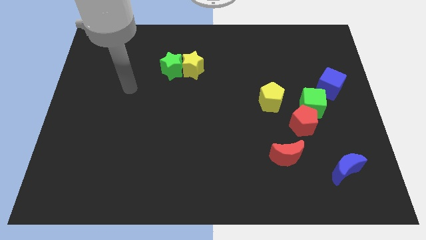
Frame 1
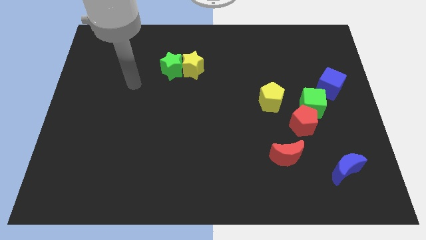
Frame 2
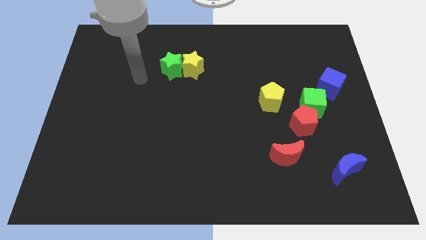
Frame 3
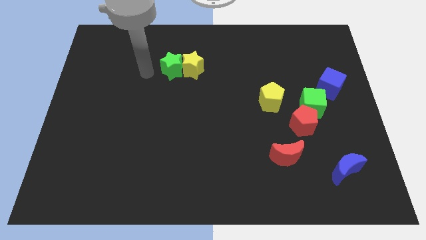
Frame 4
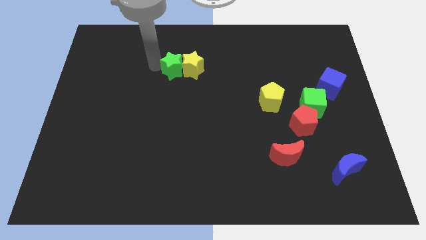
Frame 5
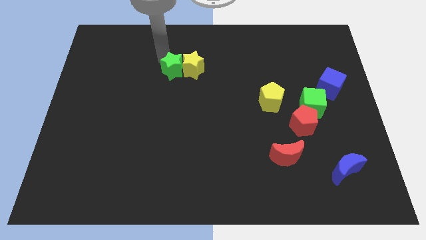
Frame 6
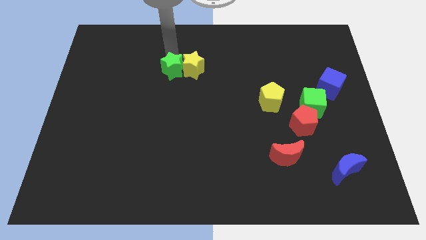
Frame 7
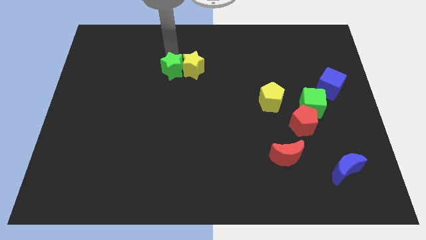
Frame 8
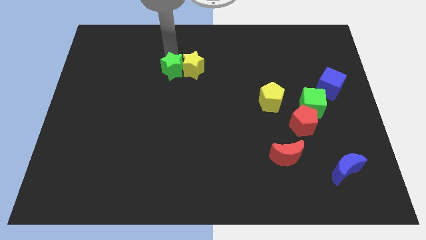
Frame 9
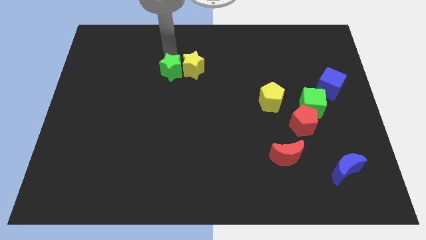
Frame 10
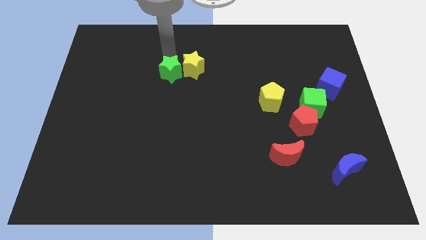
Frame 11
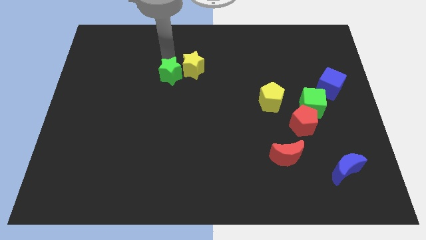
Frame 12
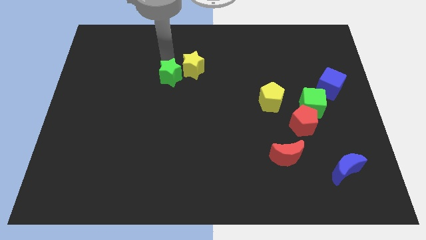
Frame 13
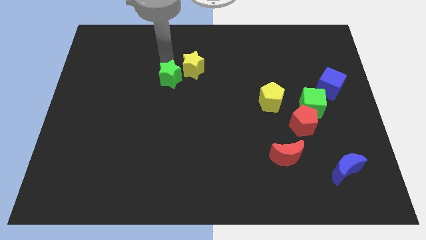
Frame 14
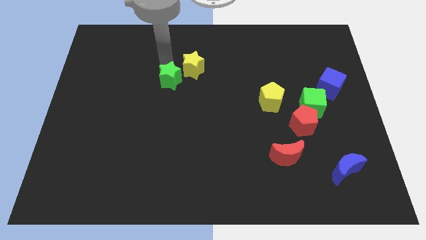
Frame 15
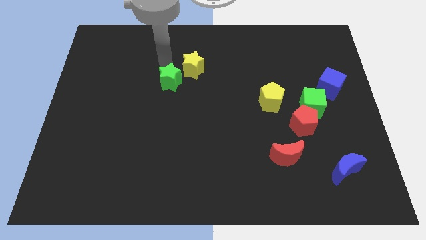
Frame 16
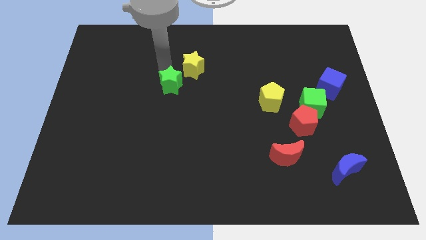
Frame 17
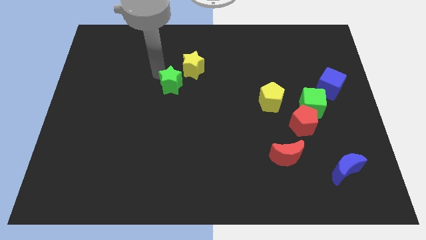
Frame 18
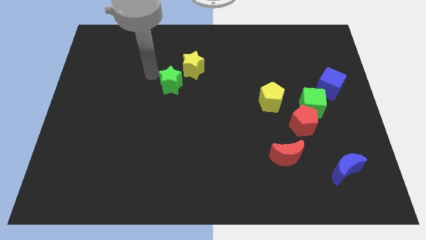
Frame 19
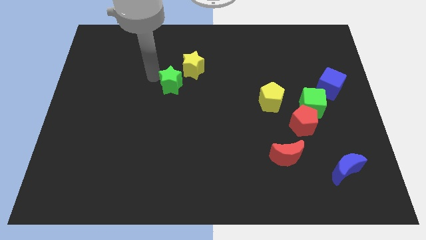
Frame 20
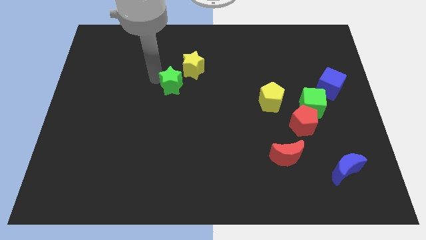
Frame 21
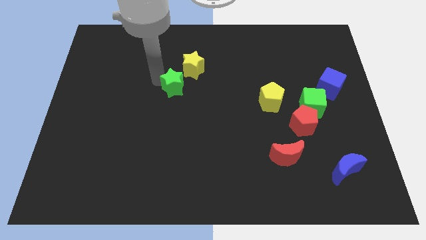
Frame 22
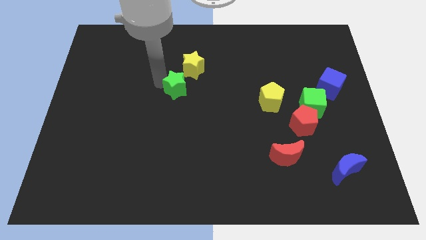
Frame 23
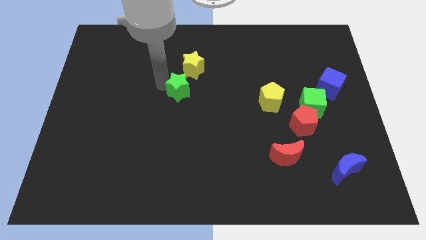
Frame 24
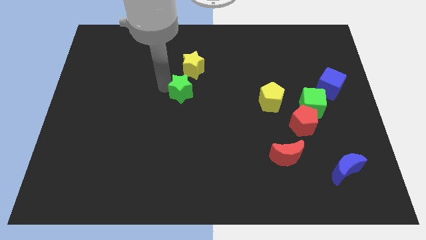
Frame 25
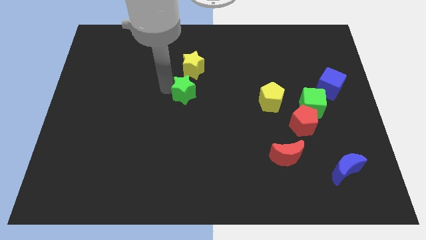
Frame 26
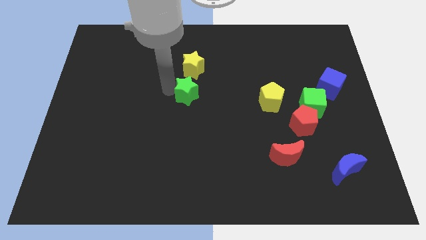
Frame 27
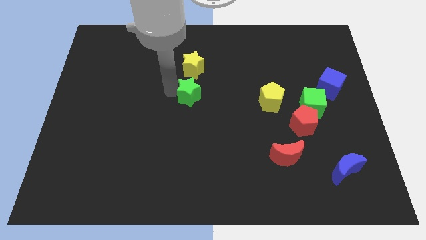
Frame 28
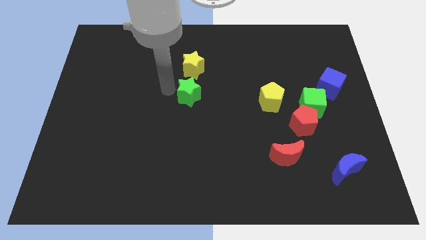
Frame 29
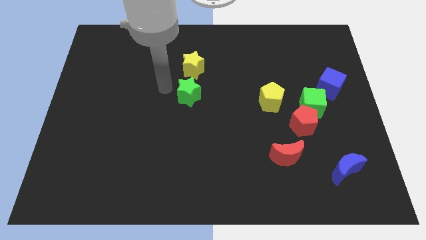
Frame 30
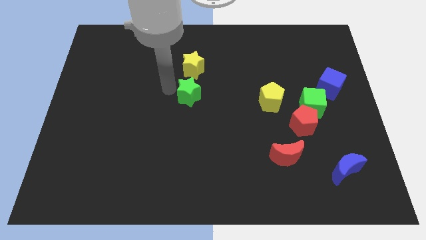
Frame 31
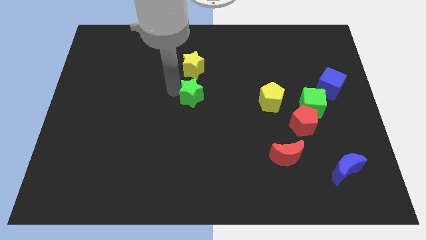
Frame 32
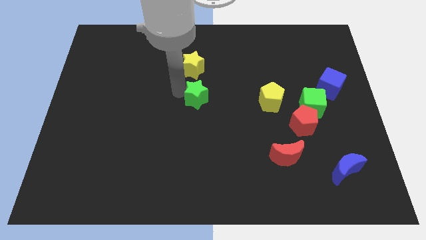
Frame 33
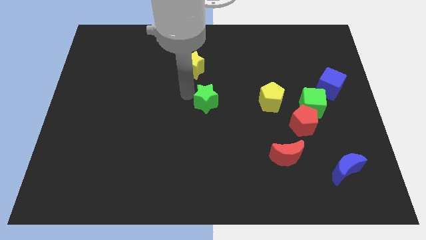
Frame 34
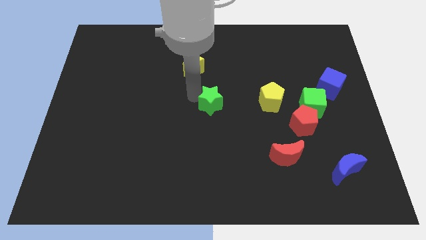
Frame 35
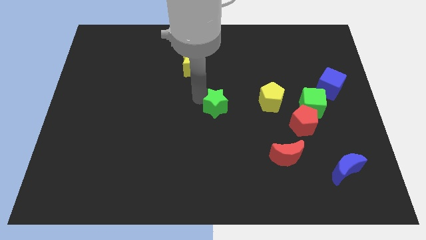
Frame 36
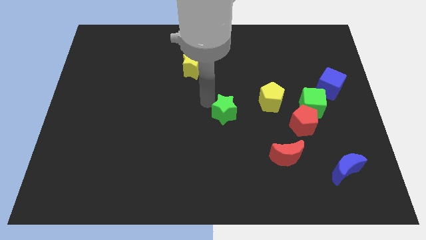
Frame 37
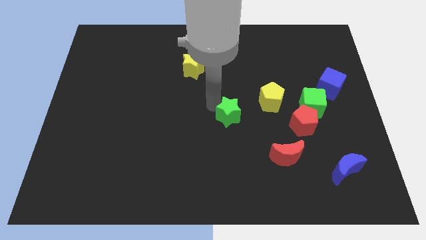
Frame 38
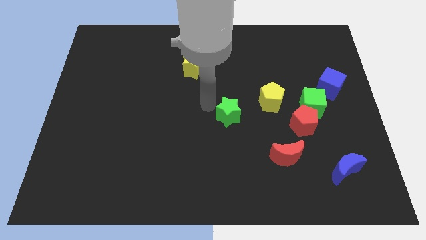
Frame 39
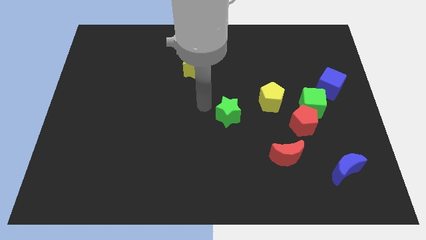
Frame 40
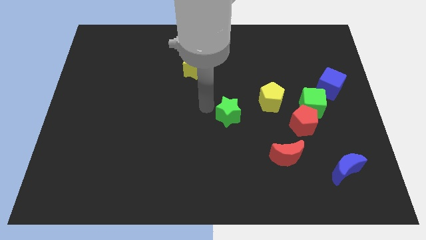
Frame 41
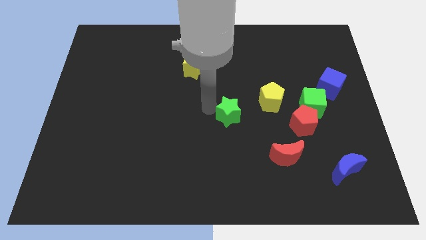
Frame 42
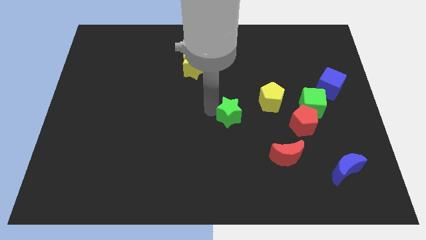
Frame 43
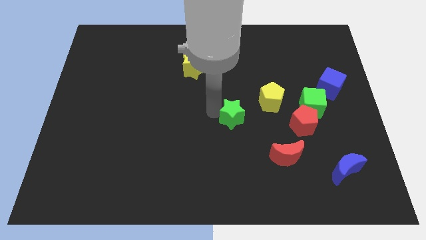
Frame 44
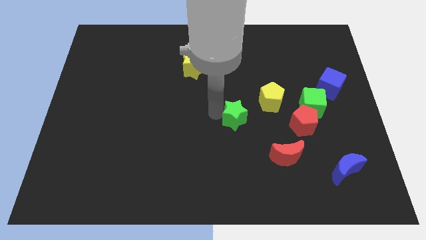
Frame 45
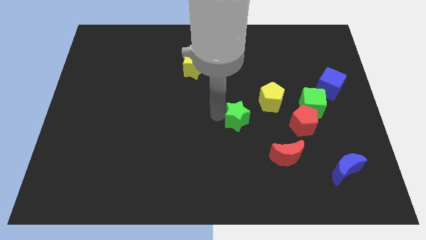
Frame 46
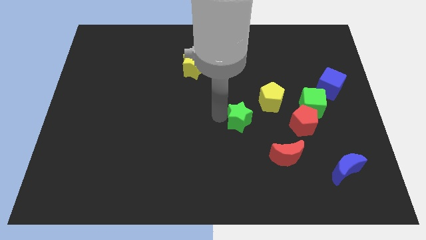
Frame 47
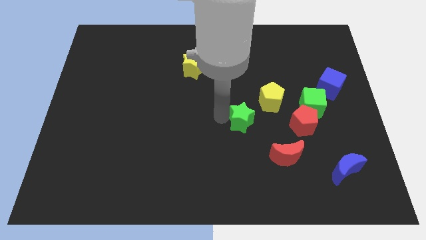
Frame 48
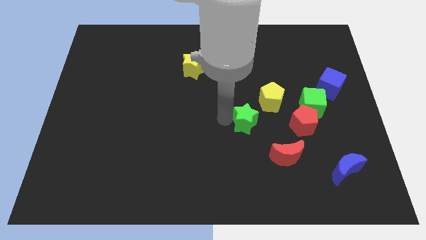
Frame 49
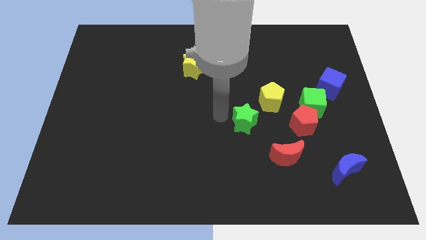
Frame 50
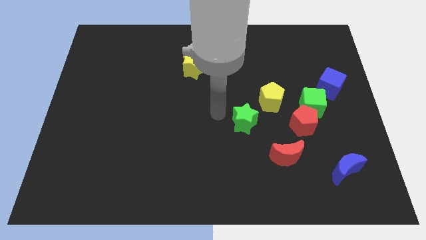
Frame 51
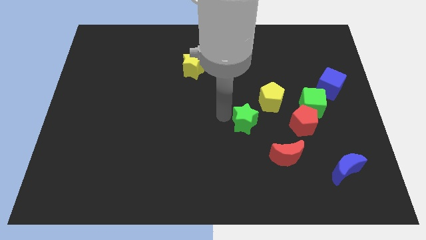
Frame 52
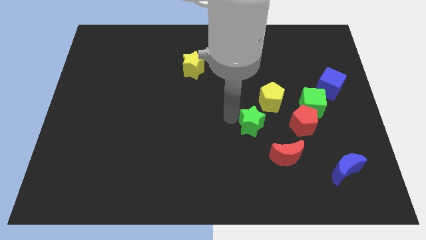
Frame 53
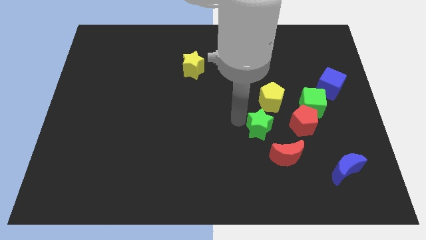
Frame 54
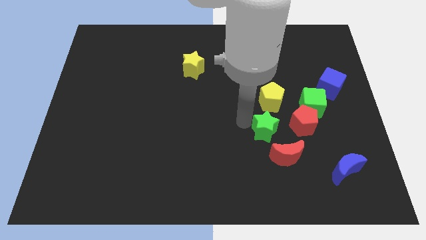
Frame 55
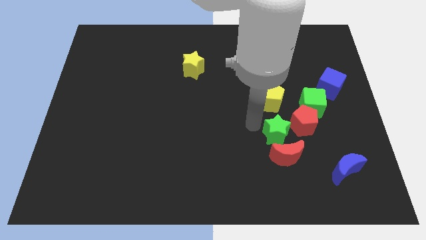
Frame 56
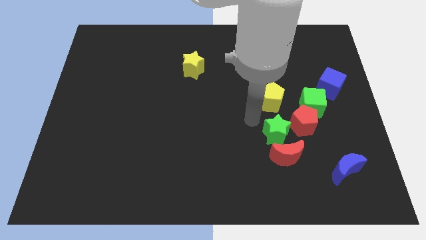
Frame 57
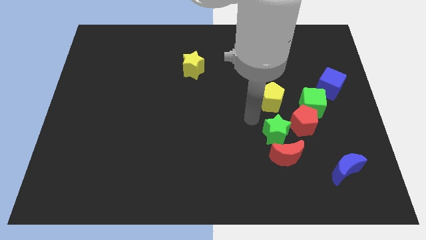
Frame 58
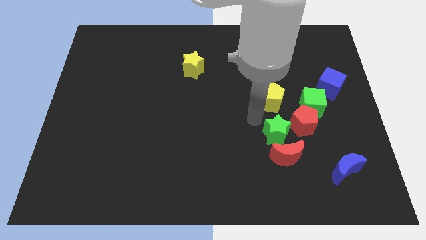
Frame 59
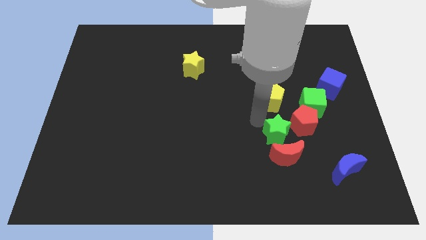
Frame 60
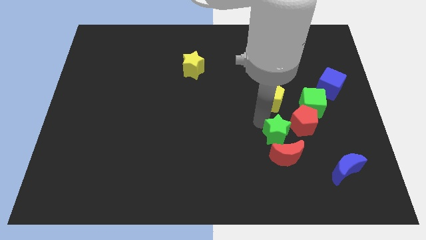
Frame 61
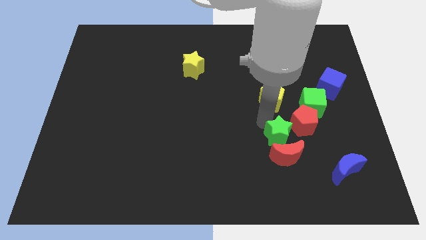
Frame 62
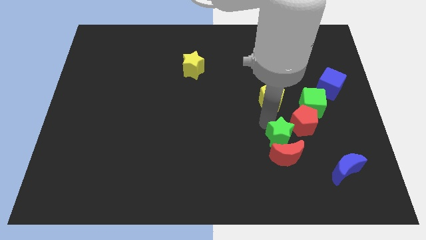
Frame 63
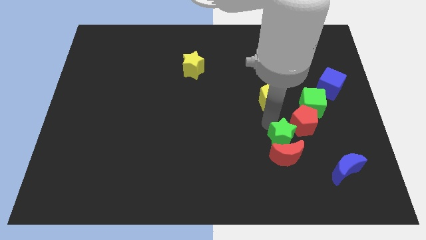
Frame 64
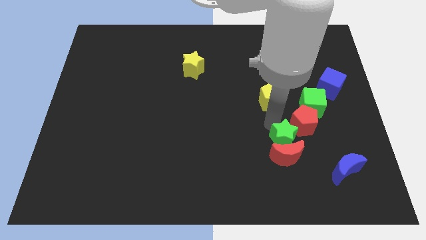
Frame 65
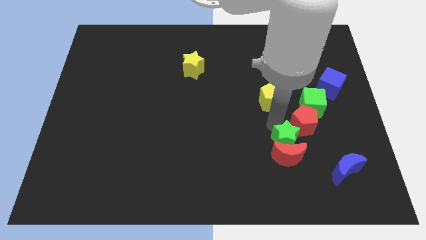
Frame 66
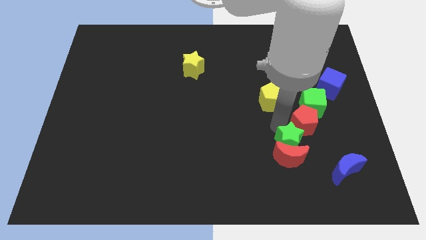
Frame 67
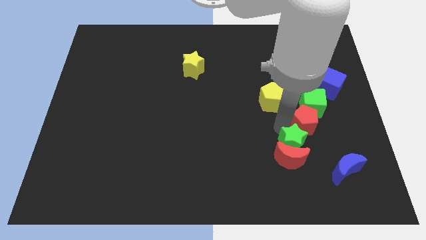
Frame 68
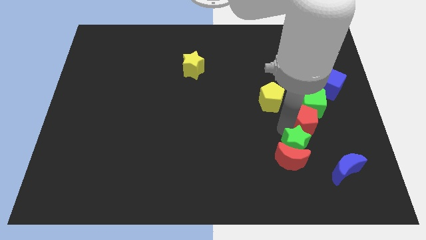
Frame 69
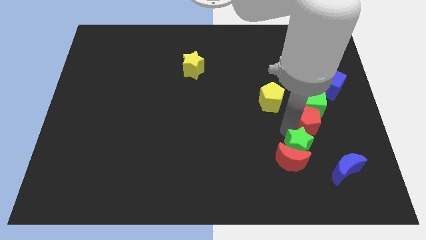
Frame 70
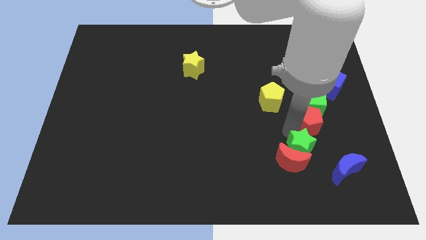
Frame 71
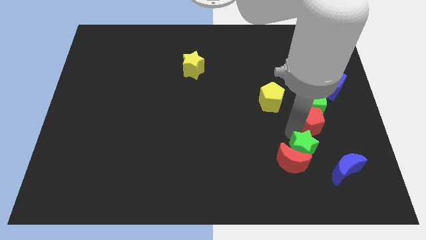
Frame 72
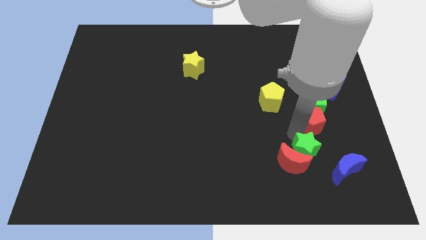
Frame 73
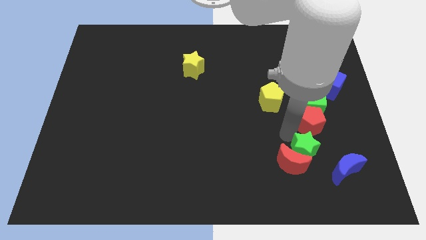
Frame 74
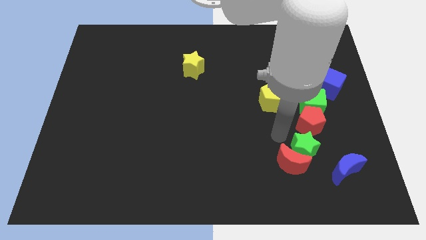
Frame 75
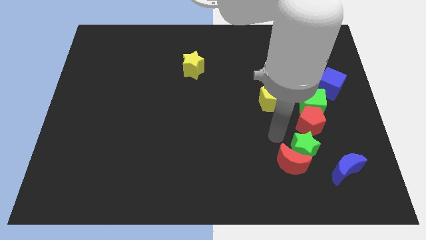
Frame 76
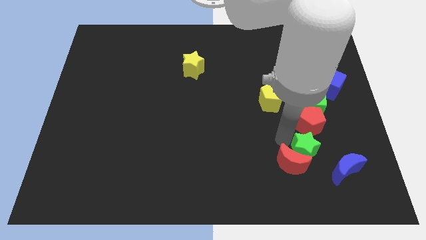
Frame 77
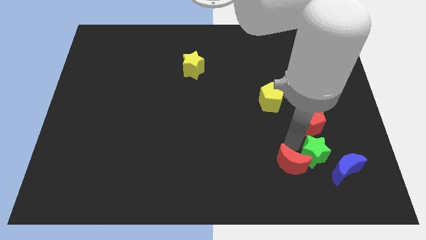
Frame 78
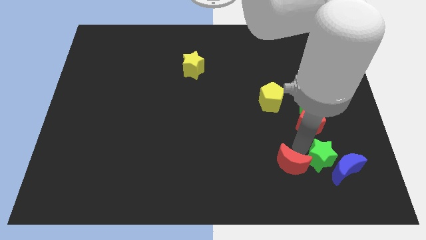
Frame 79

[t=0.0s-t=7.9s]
put the green star to the blue moon
